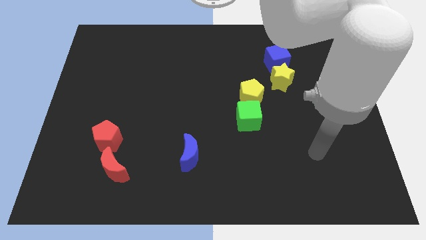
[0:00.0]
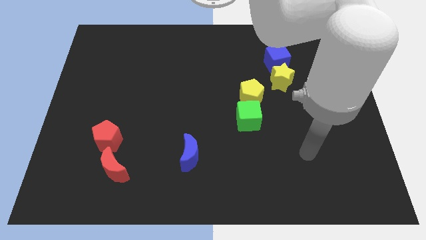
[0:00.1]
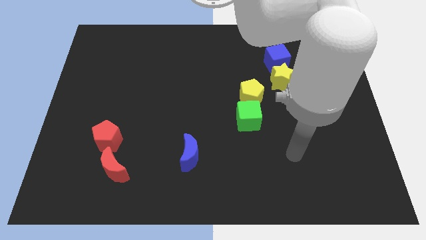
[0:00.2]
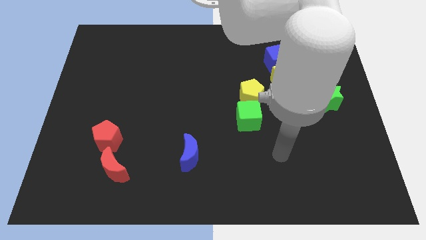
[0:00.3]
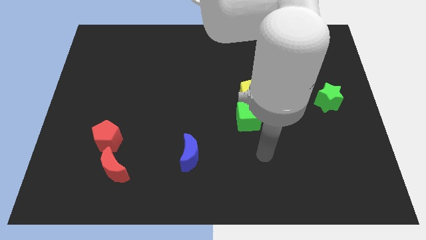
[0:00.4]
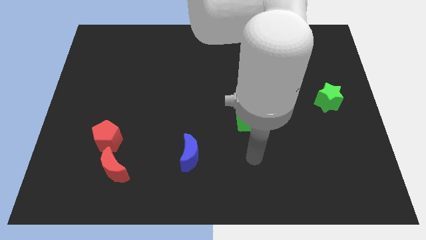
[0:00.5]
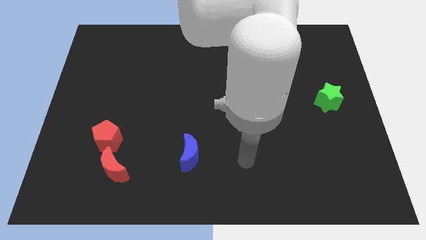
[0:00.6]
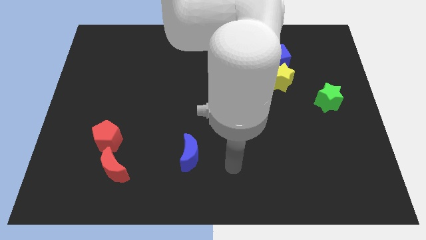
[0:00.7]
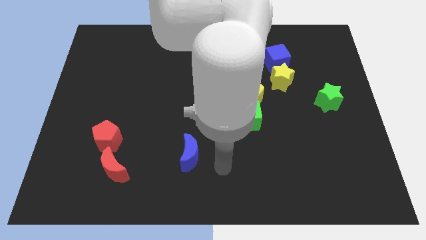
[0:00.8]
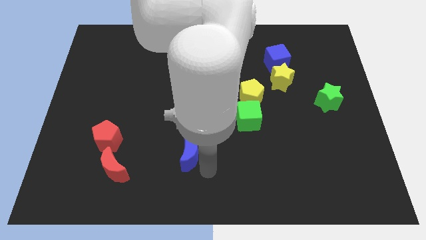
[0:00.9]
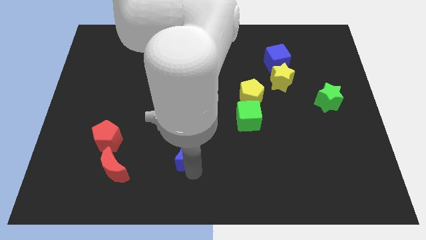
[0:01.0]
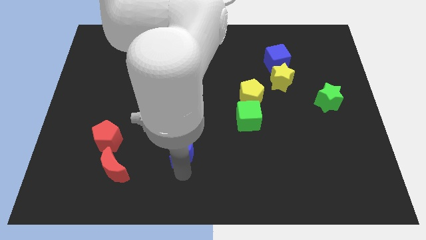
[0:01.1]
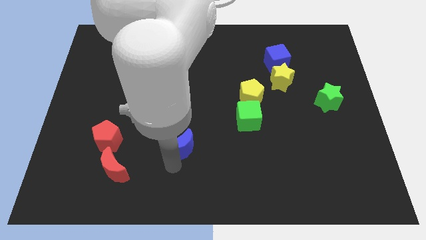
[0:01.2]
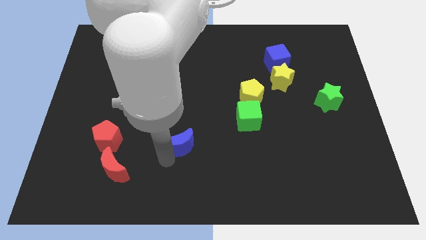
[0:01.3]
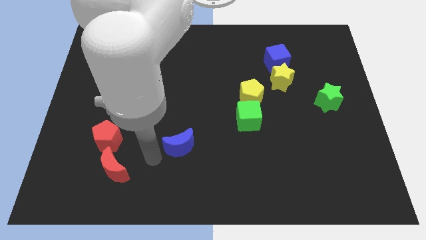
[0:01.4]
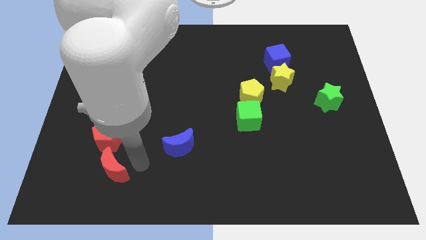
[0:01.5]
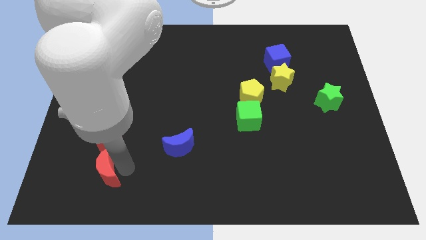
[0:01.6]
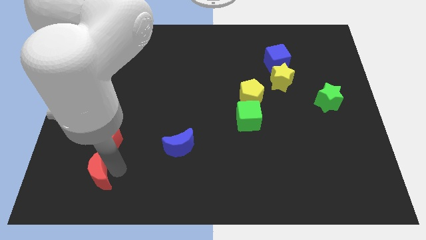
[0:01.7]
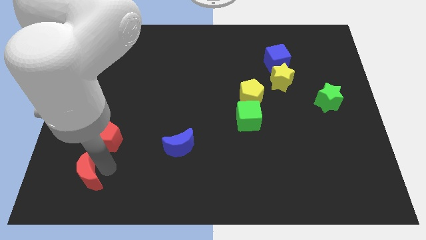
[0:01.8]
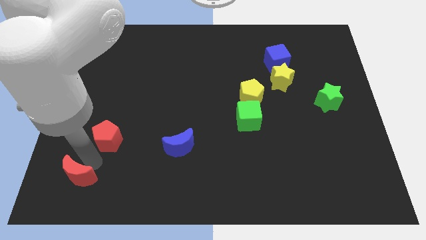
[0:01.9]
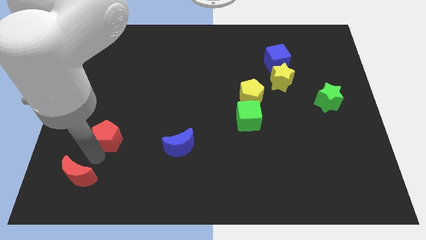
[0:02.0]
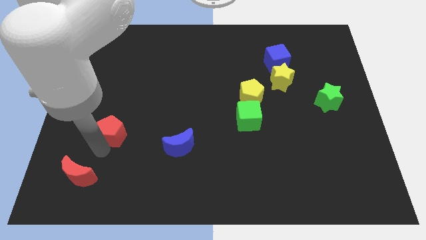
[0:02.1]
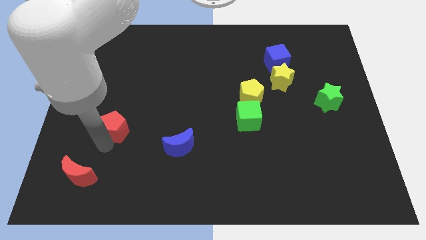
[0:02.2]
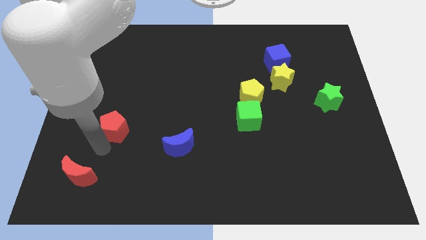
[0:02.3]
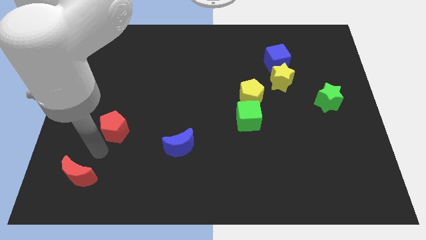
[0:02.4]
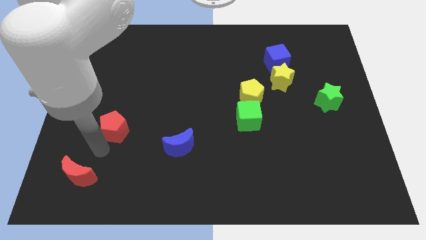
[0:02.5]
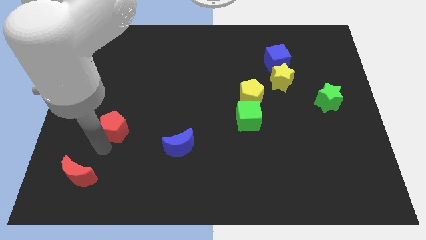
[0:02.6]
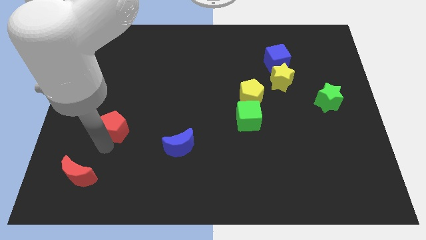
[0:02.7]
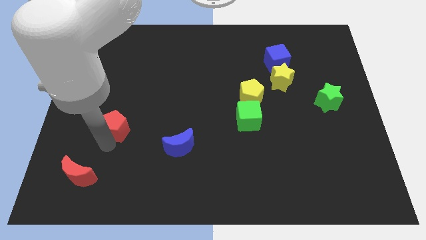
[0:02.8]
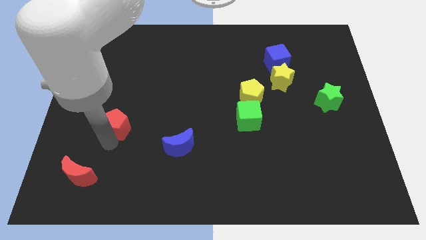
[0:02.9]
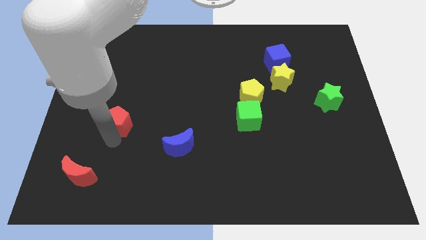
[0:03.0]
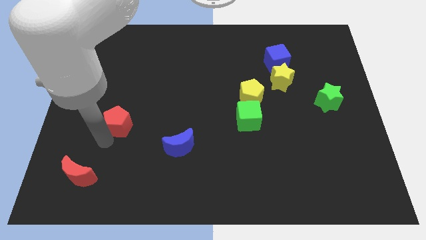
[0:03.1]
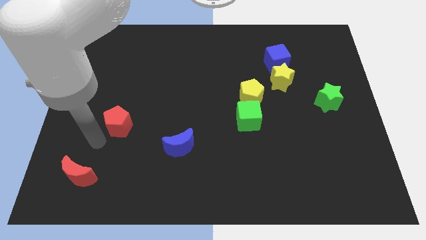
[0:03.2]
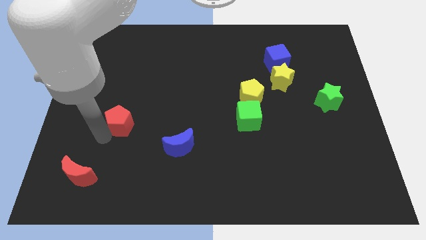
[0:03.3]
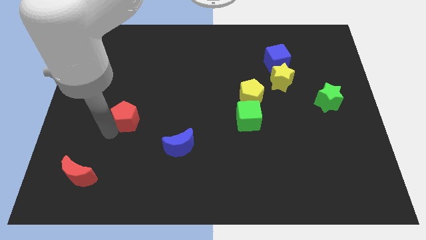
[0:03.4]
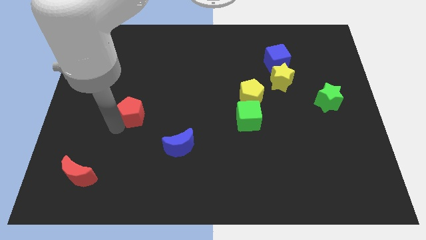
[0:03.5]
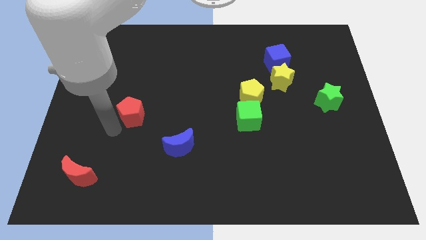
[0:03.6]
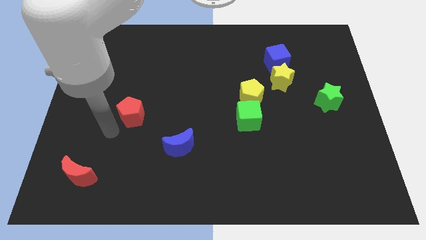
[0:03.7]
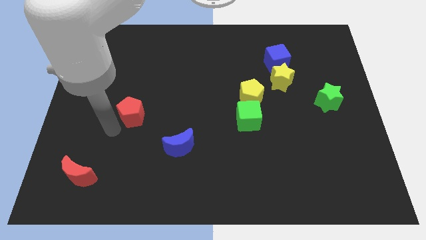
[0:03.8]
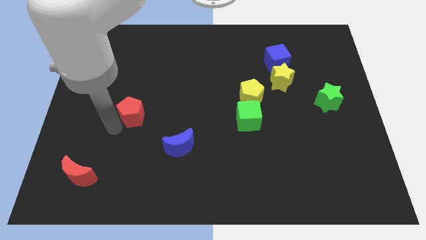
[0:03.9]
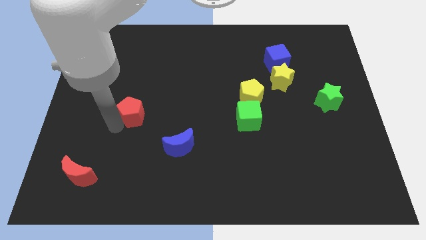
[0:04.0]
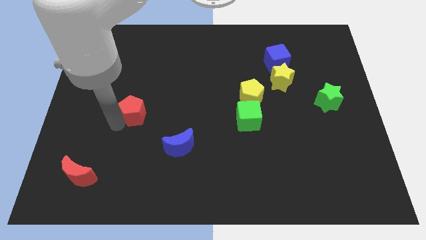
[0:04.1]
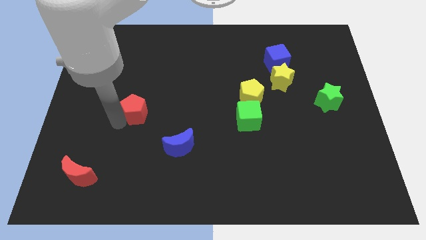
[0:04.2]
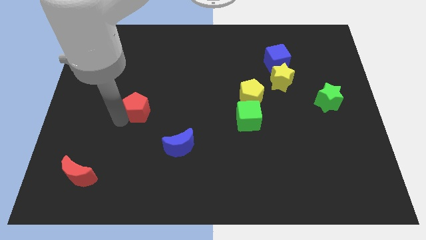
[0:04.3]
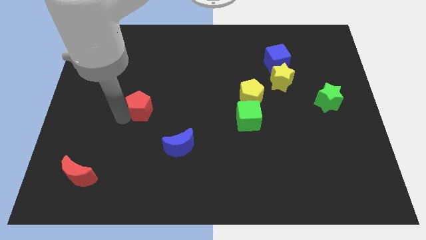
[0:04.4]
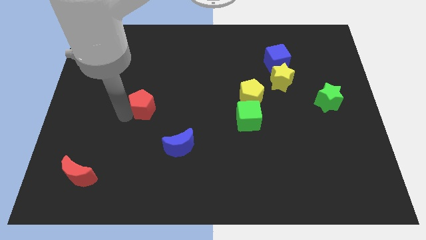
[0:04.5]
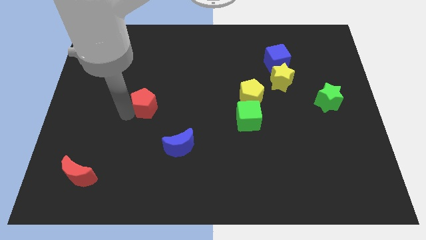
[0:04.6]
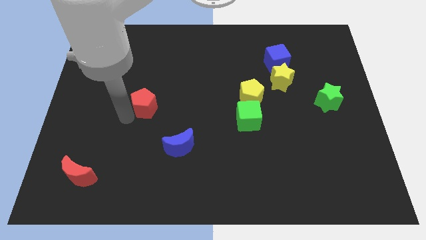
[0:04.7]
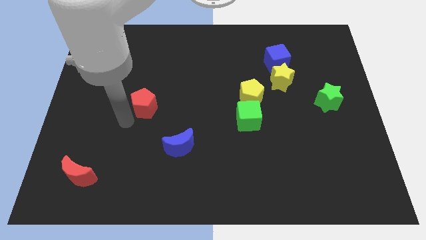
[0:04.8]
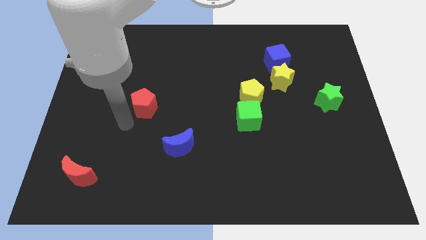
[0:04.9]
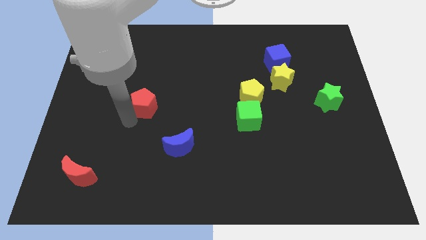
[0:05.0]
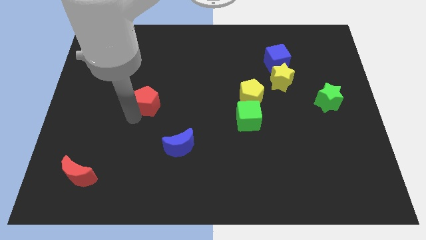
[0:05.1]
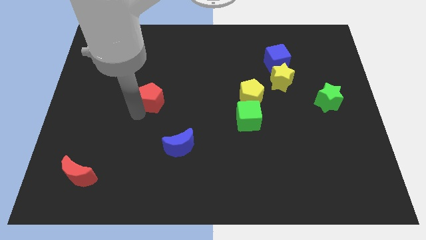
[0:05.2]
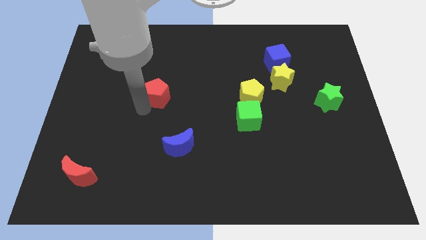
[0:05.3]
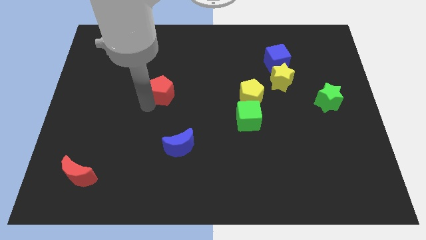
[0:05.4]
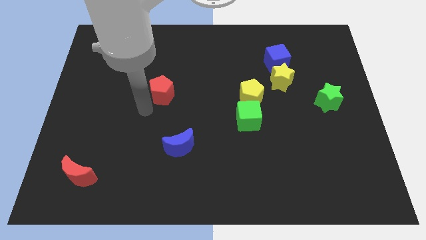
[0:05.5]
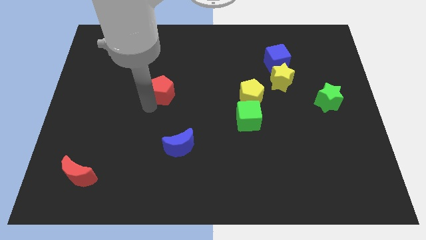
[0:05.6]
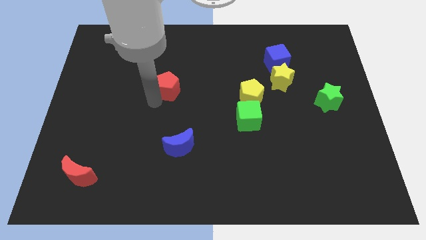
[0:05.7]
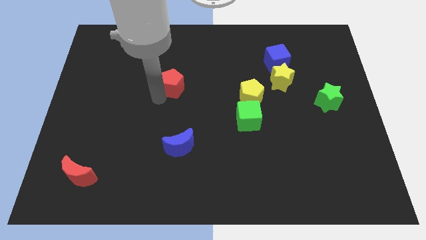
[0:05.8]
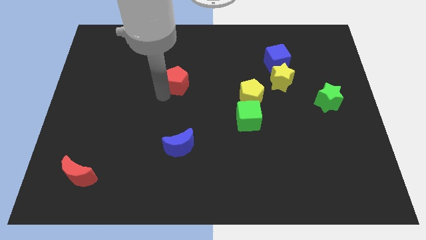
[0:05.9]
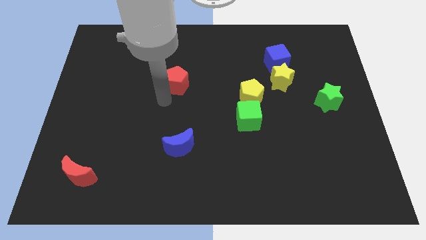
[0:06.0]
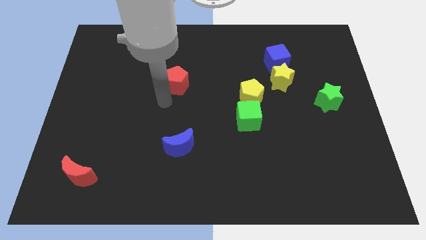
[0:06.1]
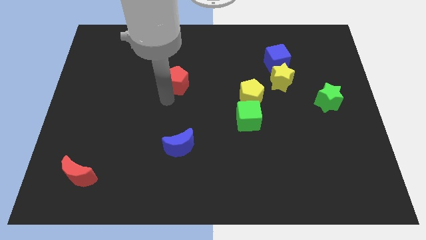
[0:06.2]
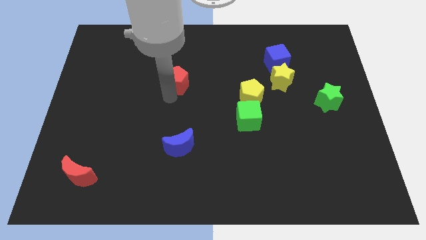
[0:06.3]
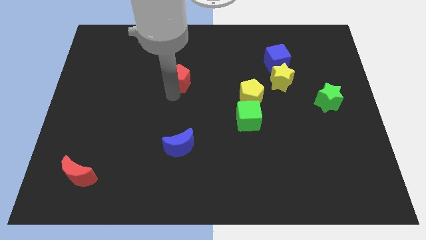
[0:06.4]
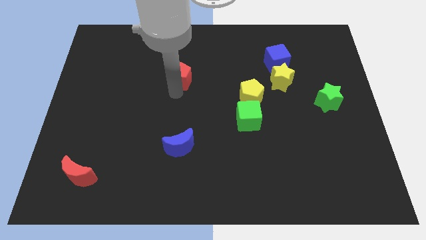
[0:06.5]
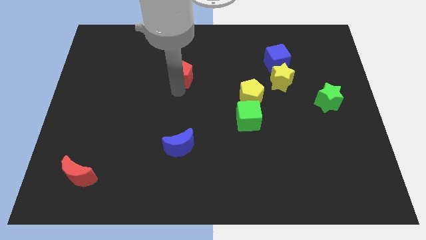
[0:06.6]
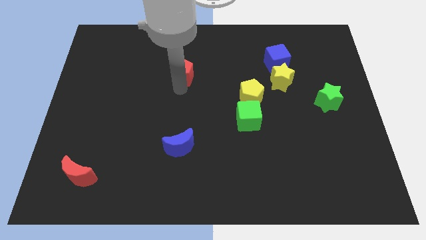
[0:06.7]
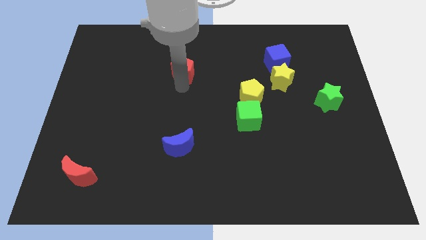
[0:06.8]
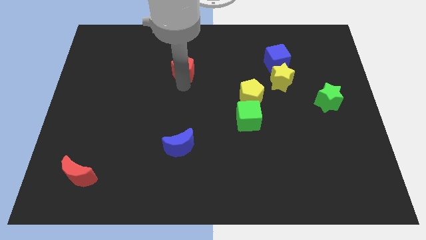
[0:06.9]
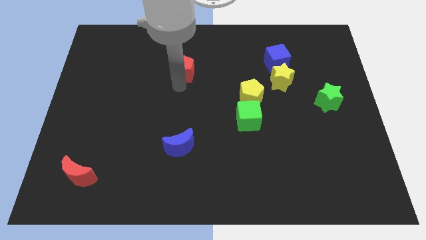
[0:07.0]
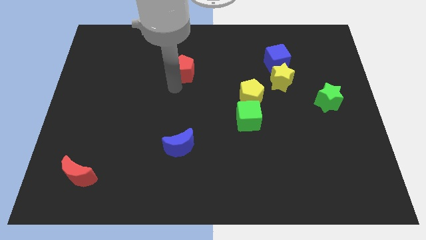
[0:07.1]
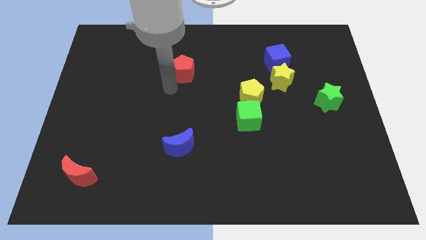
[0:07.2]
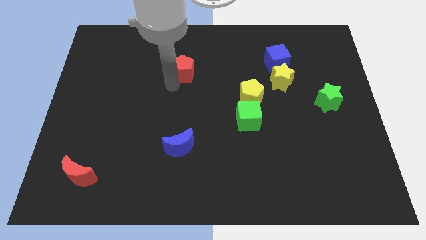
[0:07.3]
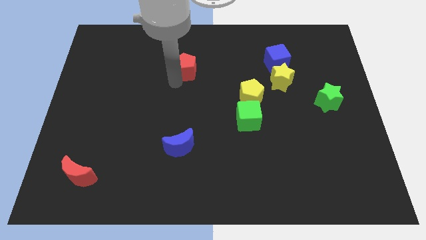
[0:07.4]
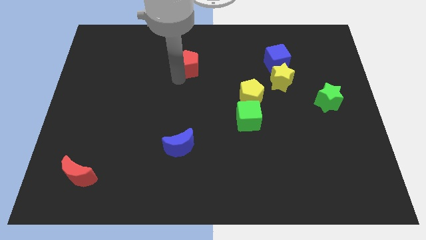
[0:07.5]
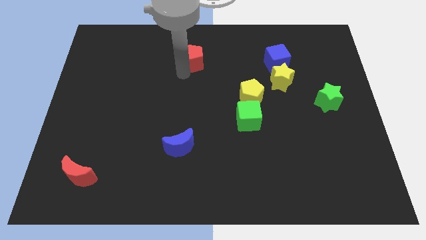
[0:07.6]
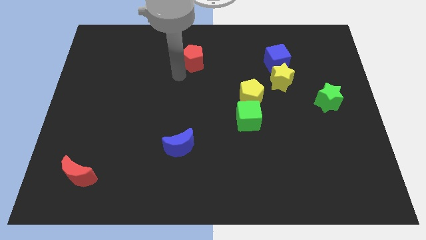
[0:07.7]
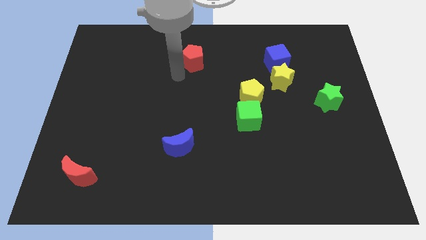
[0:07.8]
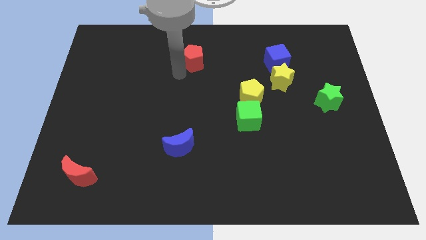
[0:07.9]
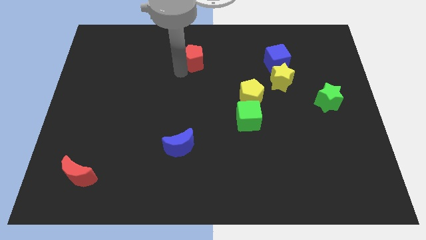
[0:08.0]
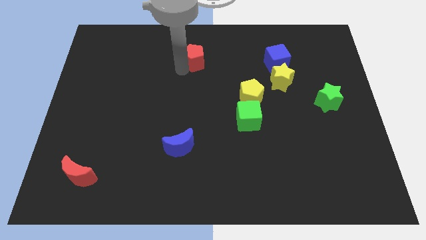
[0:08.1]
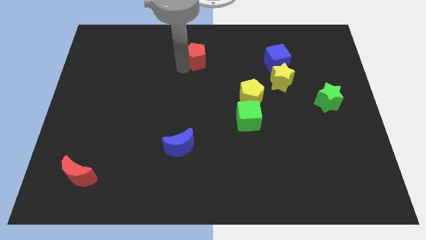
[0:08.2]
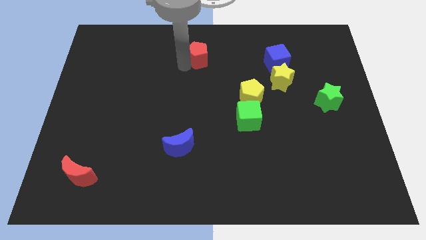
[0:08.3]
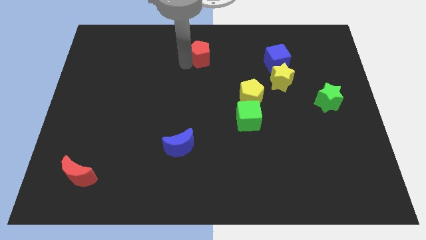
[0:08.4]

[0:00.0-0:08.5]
put the red pentagon to the top side
